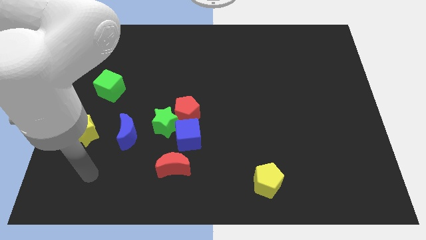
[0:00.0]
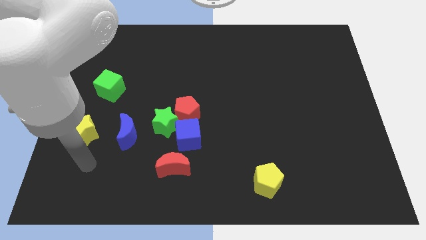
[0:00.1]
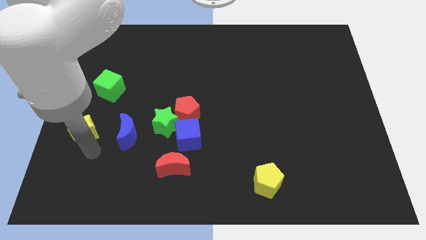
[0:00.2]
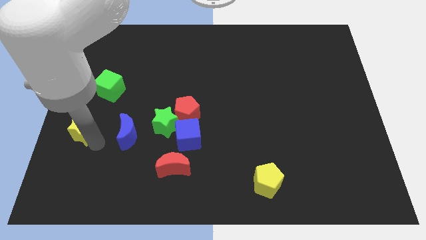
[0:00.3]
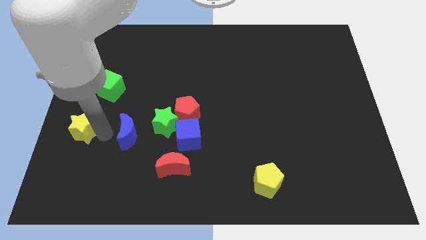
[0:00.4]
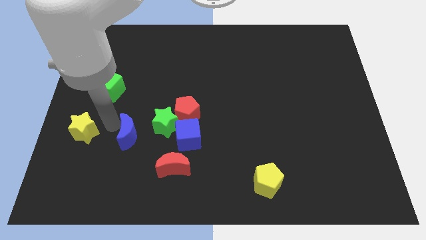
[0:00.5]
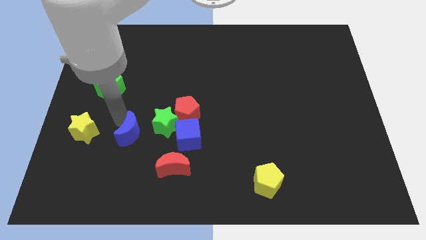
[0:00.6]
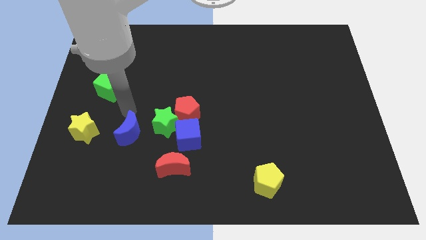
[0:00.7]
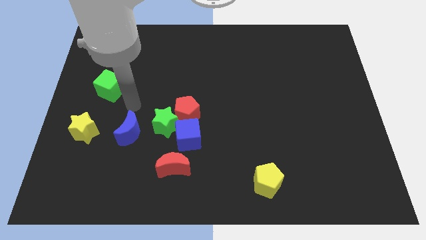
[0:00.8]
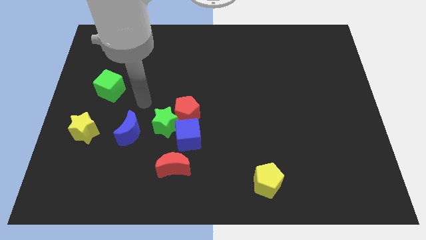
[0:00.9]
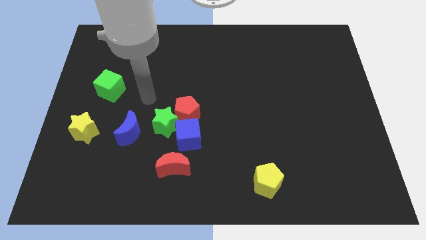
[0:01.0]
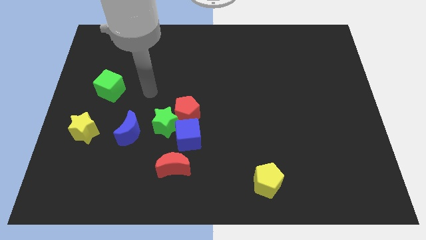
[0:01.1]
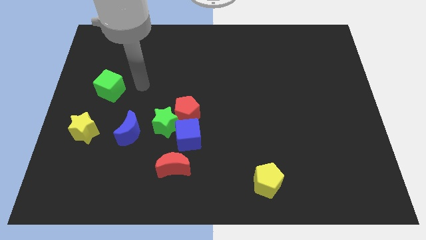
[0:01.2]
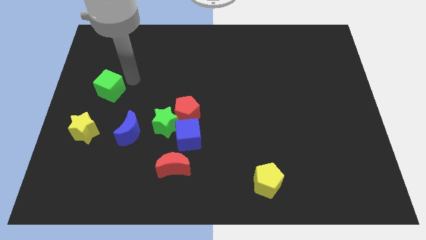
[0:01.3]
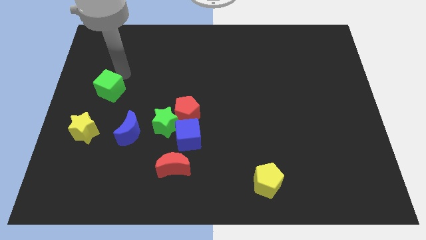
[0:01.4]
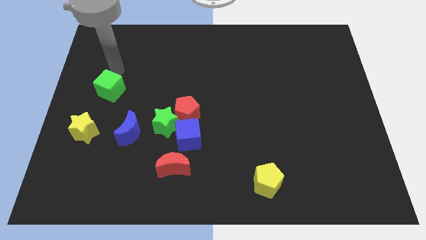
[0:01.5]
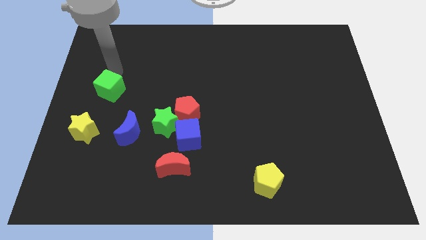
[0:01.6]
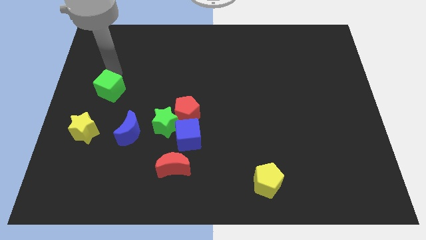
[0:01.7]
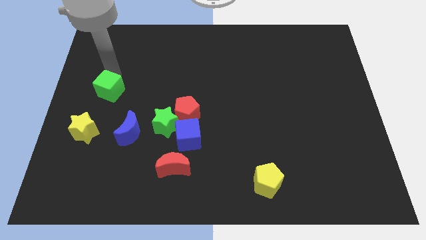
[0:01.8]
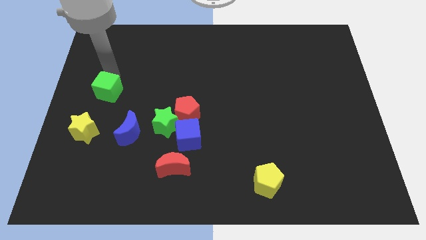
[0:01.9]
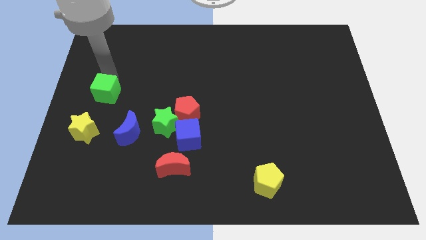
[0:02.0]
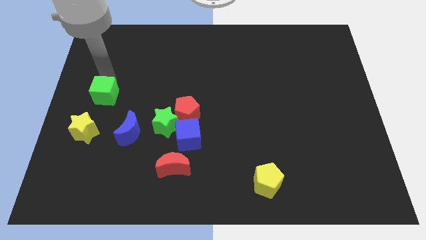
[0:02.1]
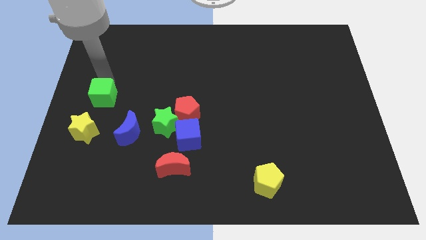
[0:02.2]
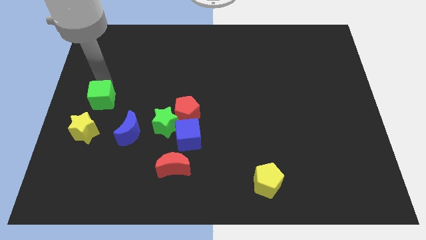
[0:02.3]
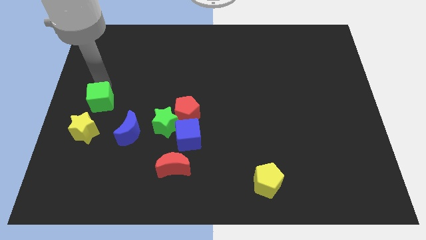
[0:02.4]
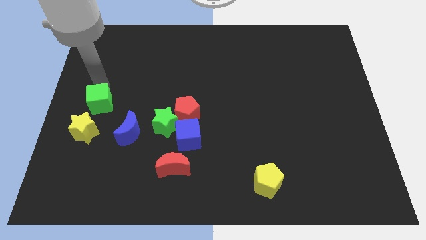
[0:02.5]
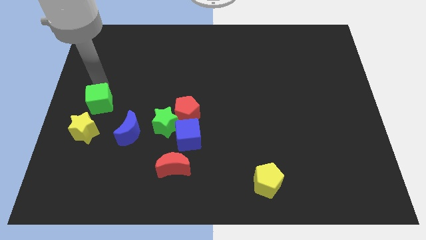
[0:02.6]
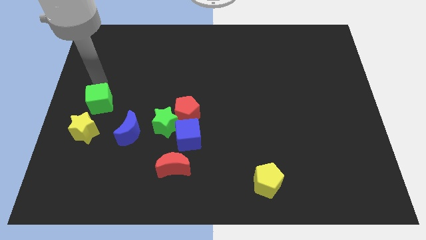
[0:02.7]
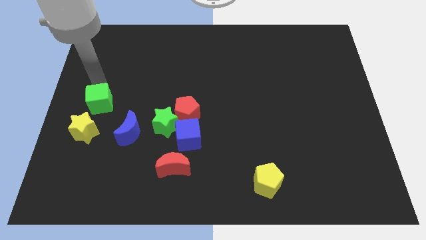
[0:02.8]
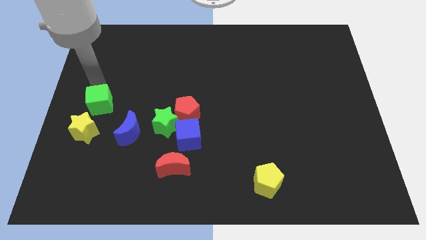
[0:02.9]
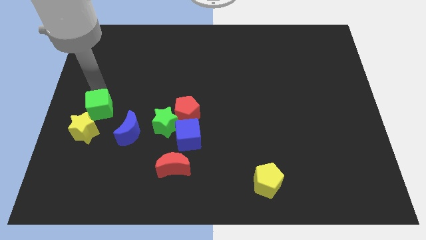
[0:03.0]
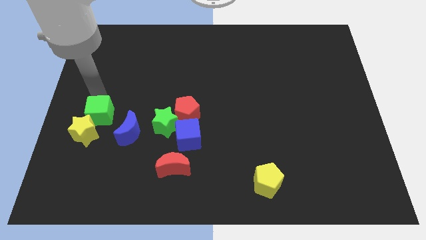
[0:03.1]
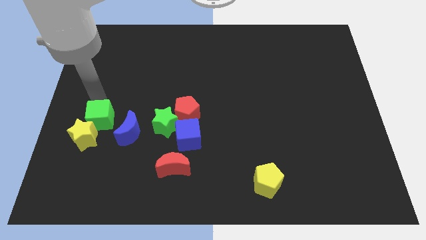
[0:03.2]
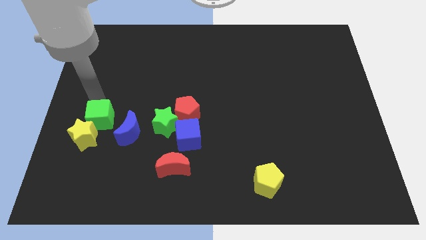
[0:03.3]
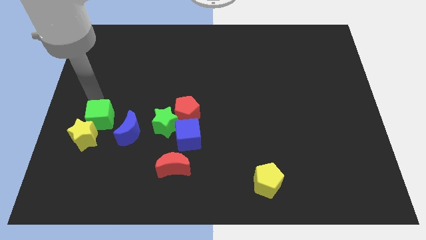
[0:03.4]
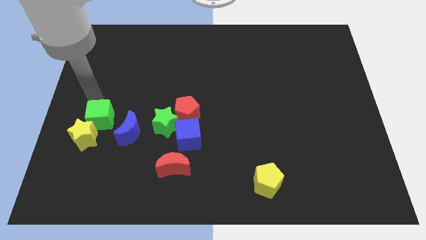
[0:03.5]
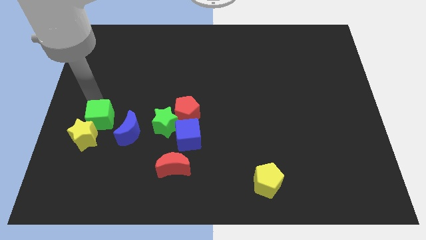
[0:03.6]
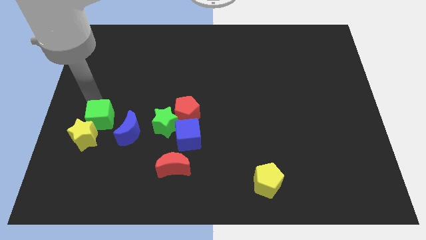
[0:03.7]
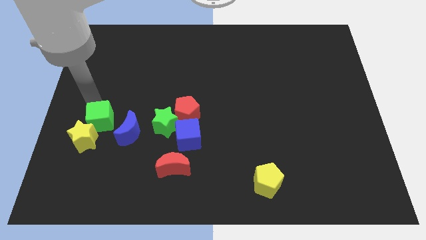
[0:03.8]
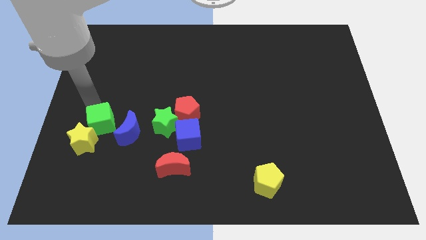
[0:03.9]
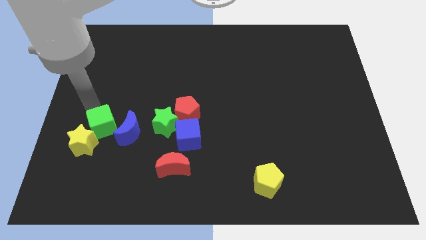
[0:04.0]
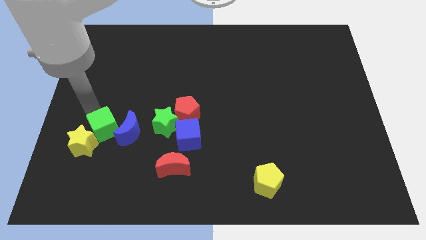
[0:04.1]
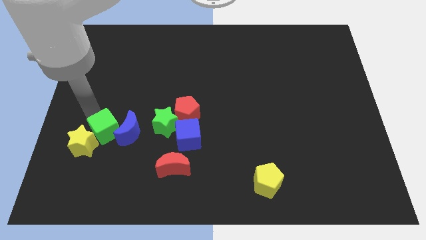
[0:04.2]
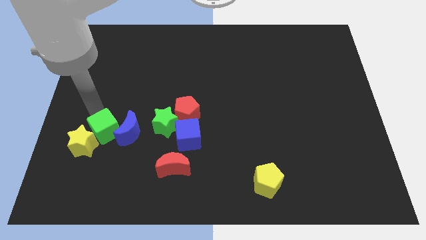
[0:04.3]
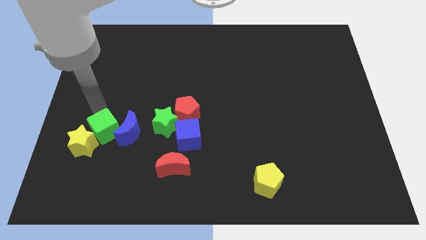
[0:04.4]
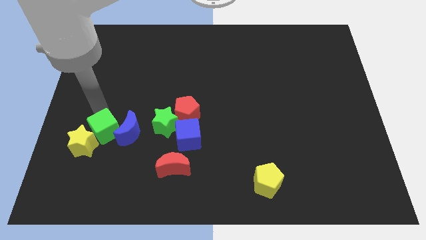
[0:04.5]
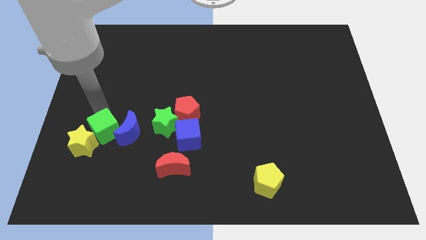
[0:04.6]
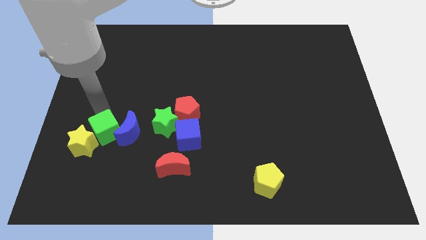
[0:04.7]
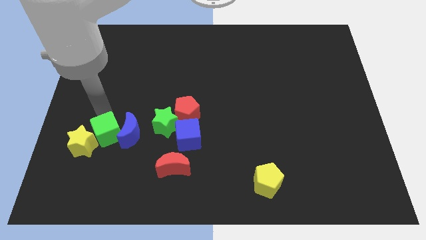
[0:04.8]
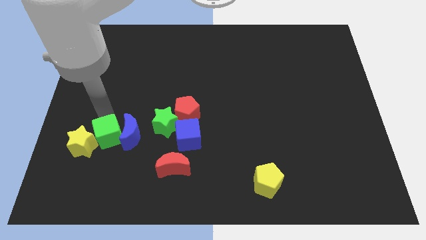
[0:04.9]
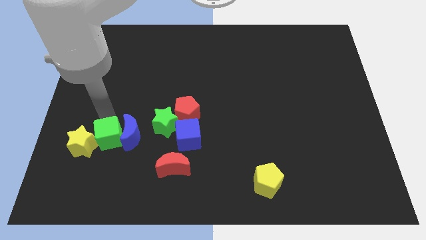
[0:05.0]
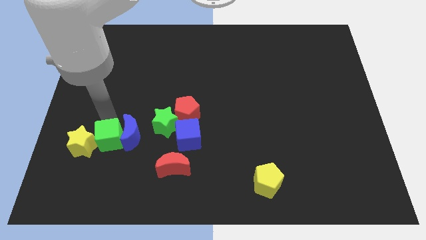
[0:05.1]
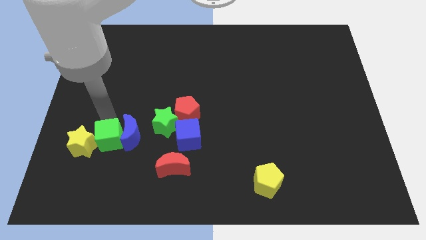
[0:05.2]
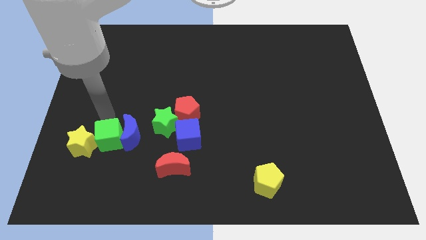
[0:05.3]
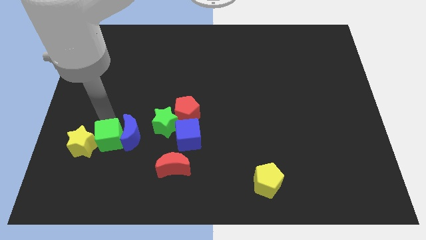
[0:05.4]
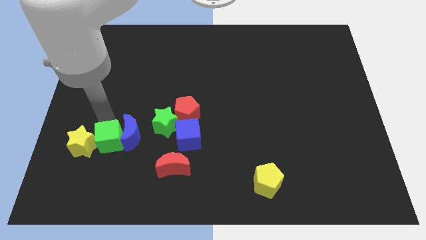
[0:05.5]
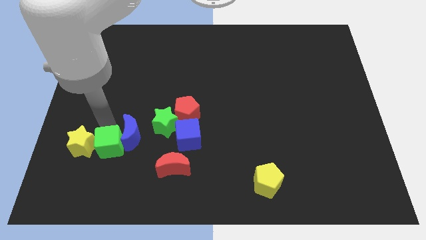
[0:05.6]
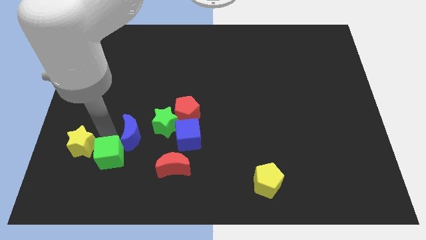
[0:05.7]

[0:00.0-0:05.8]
move the green cube to the bottom side of the blue moon

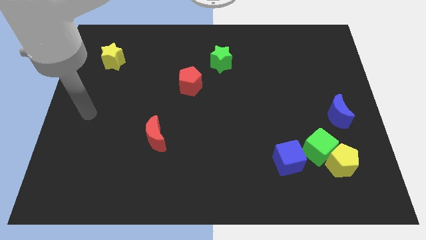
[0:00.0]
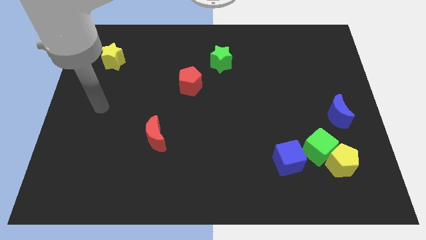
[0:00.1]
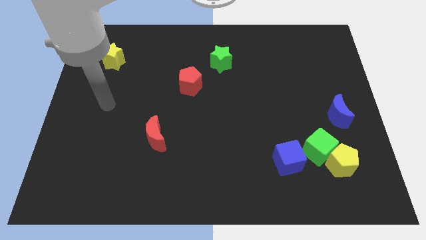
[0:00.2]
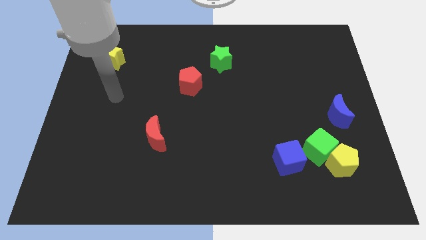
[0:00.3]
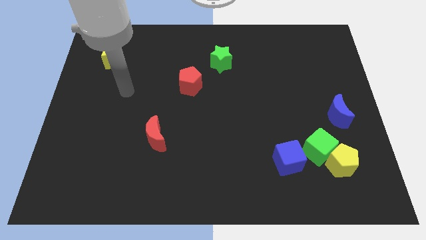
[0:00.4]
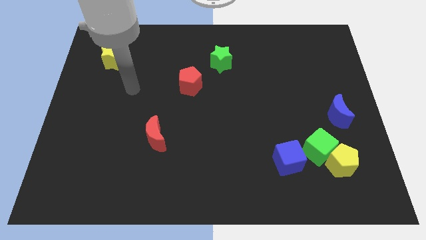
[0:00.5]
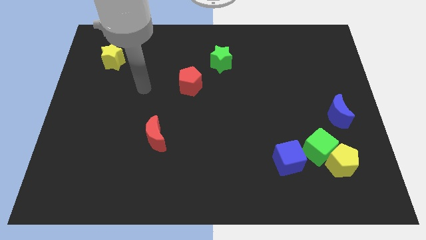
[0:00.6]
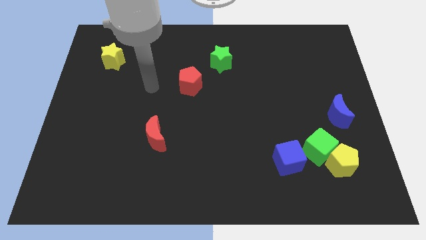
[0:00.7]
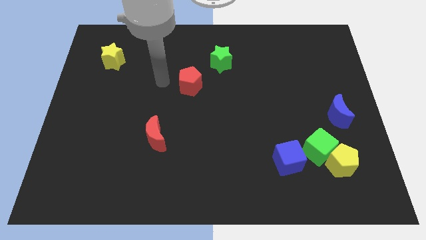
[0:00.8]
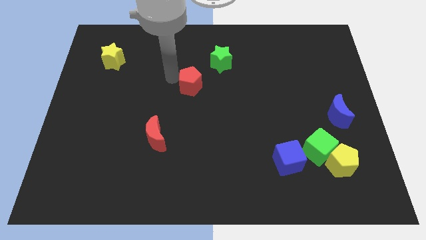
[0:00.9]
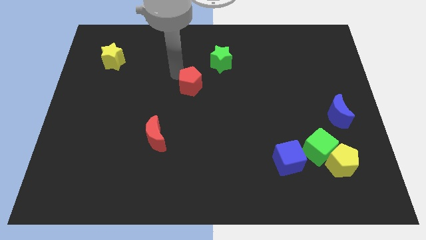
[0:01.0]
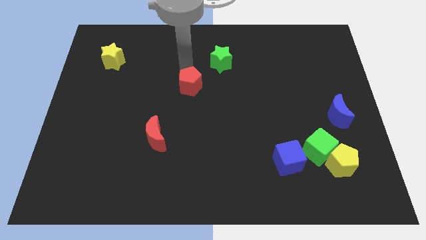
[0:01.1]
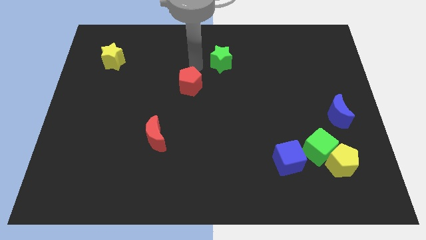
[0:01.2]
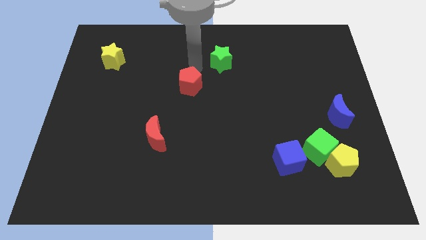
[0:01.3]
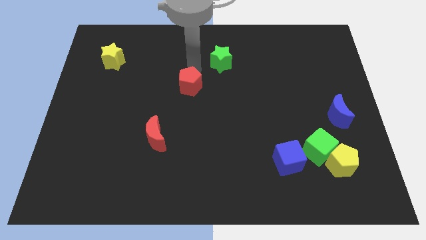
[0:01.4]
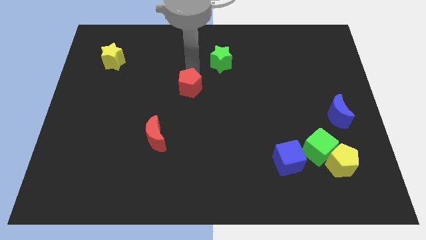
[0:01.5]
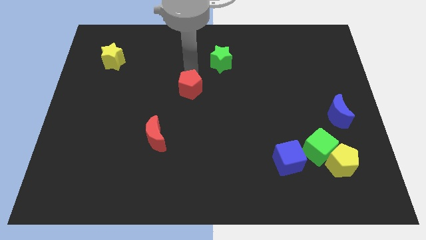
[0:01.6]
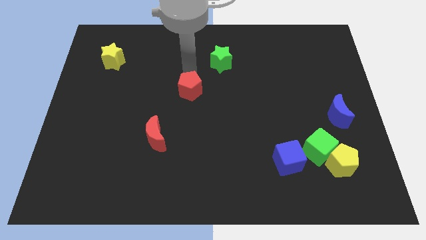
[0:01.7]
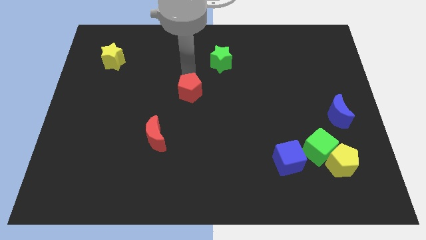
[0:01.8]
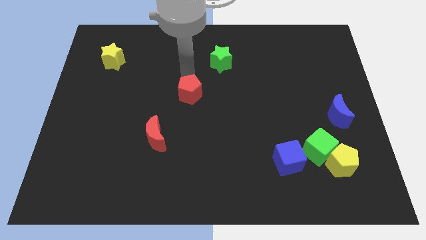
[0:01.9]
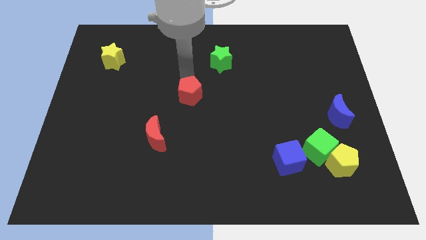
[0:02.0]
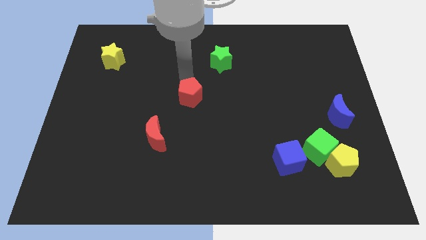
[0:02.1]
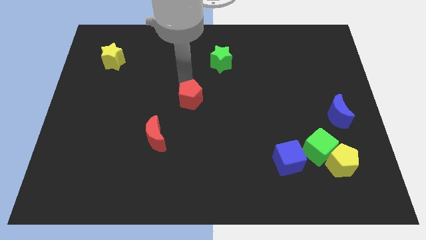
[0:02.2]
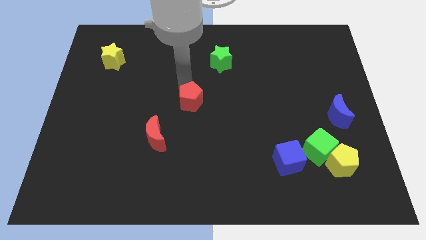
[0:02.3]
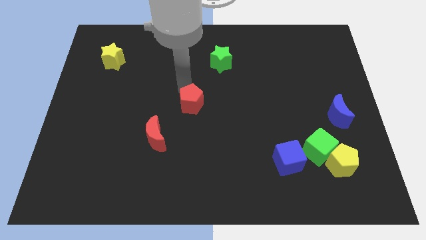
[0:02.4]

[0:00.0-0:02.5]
move the red pentagon to the top right of the red moon
